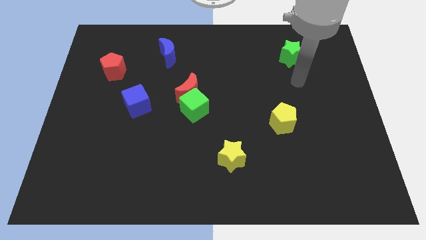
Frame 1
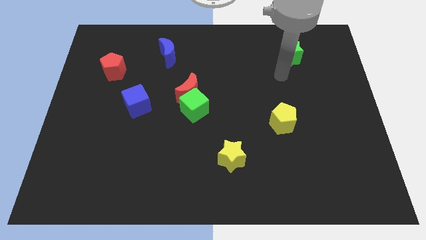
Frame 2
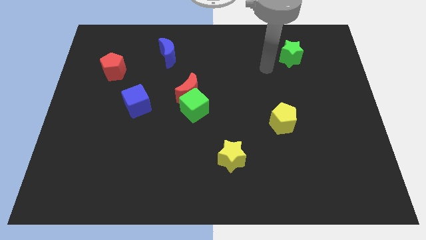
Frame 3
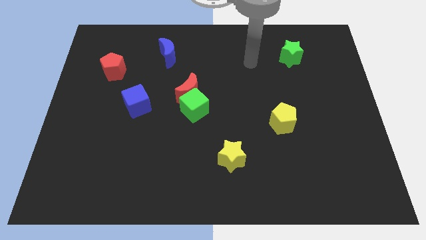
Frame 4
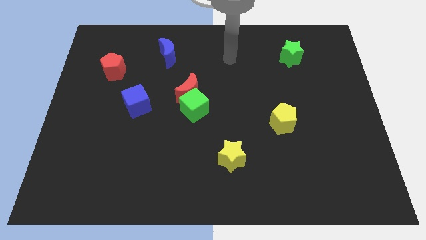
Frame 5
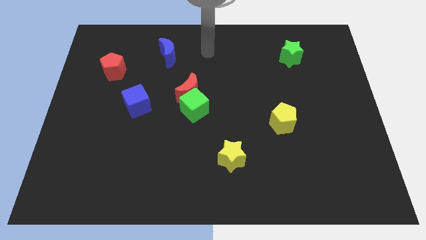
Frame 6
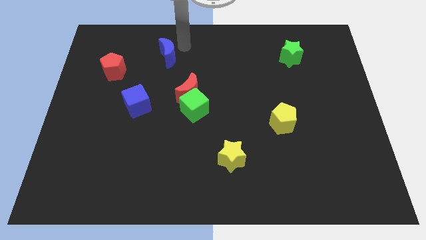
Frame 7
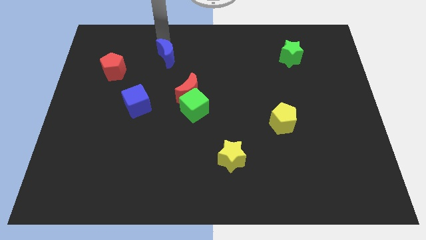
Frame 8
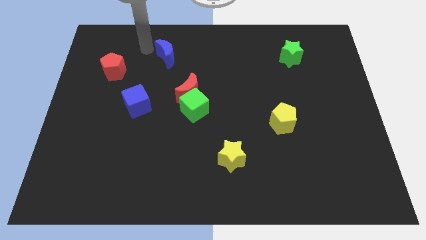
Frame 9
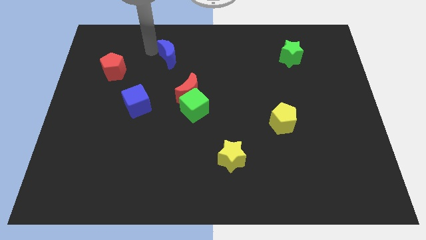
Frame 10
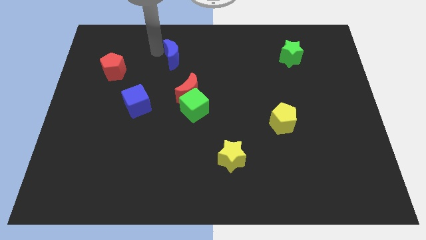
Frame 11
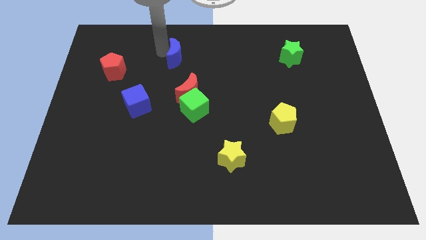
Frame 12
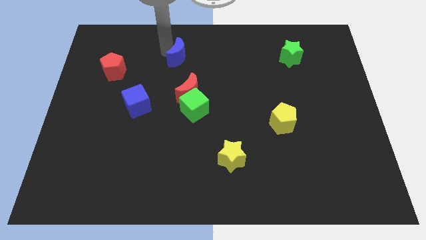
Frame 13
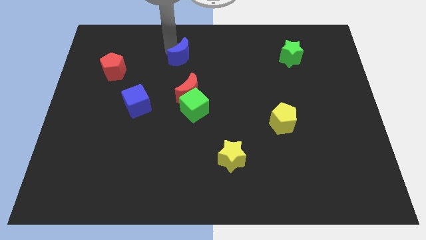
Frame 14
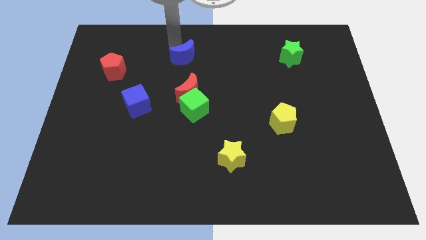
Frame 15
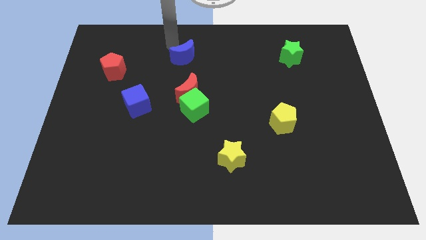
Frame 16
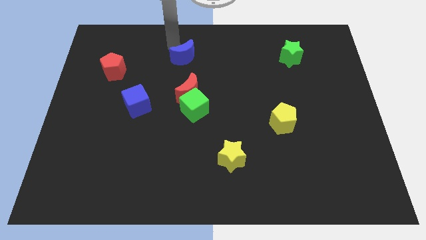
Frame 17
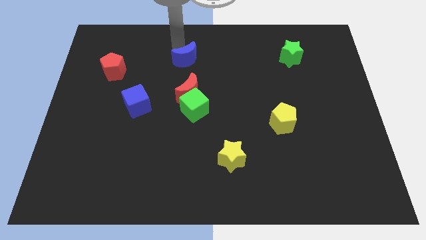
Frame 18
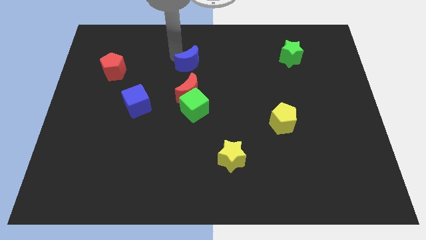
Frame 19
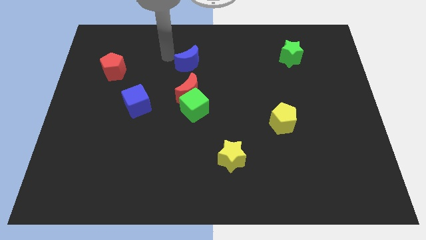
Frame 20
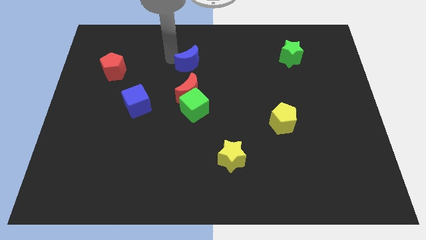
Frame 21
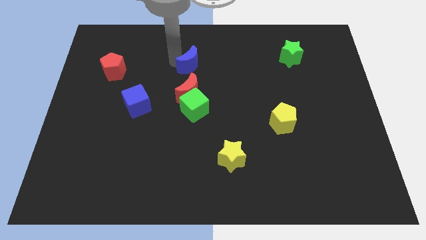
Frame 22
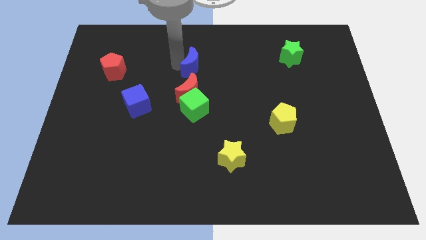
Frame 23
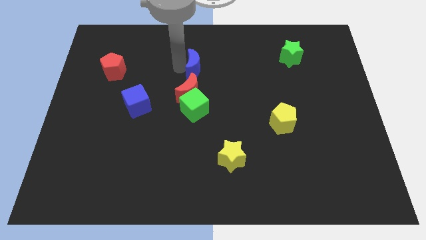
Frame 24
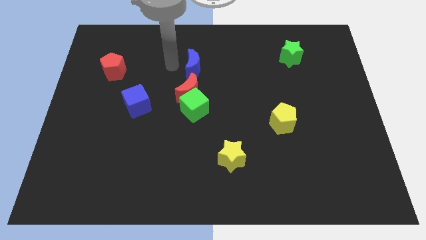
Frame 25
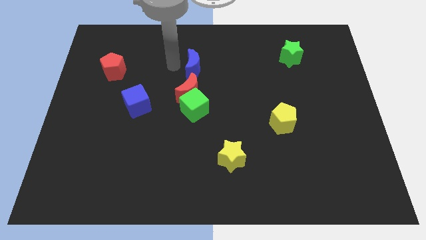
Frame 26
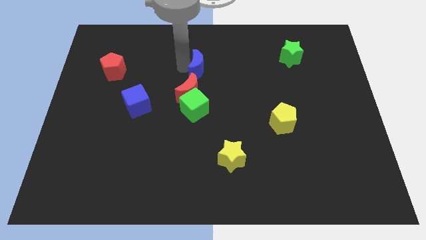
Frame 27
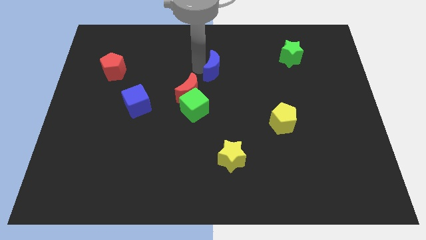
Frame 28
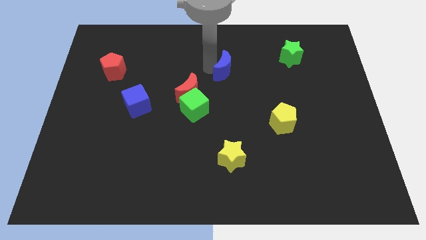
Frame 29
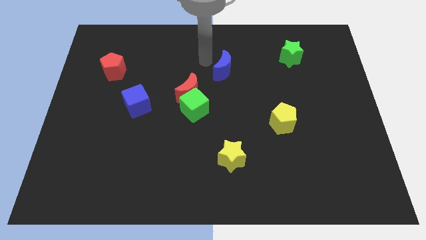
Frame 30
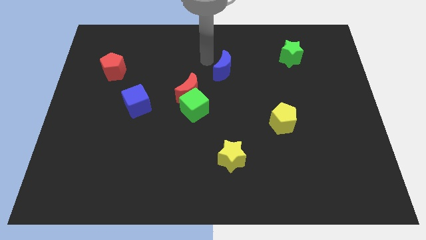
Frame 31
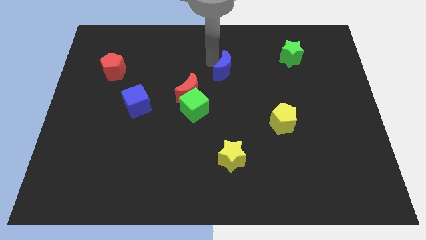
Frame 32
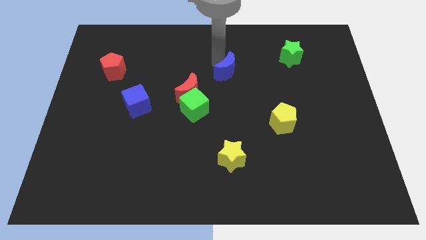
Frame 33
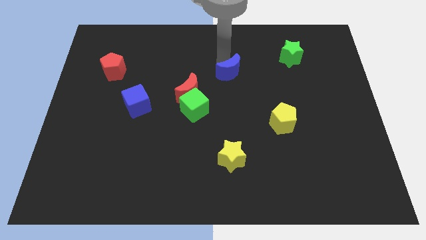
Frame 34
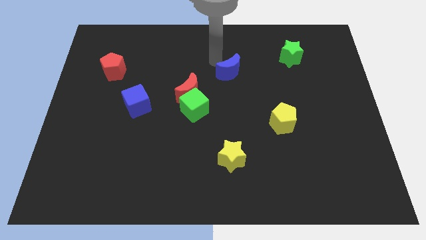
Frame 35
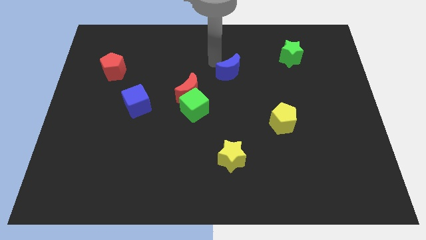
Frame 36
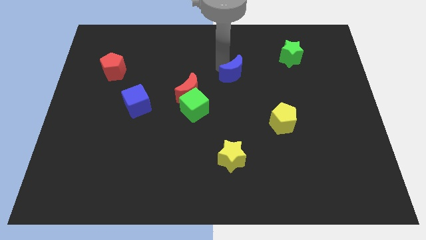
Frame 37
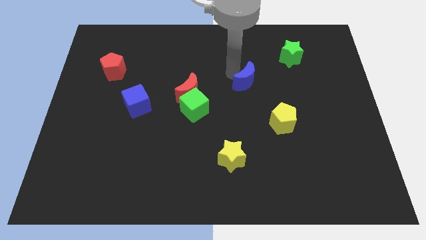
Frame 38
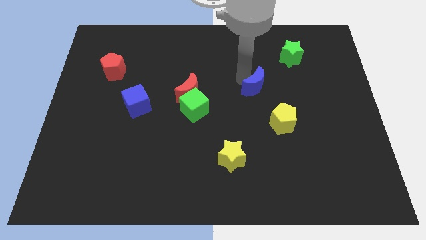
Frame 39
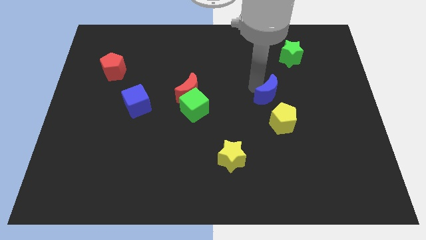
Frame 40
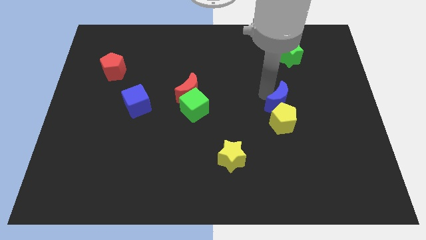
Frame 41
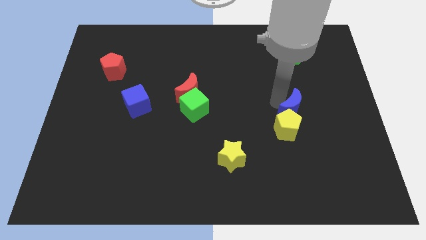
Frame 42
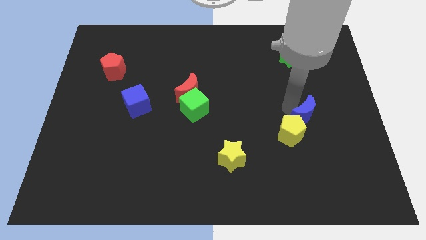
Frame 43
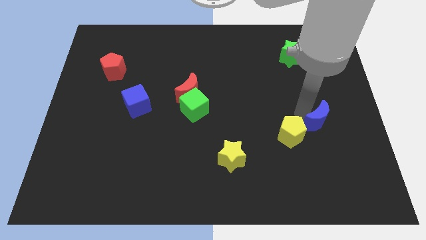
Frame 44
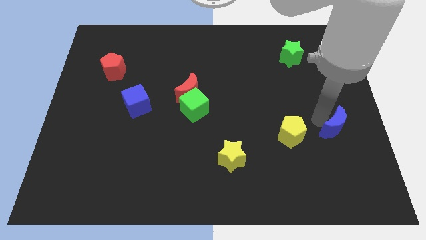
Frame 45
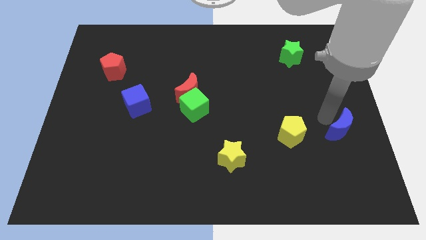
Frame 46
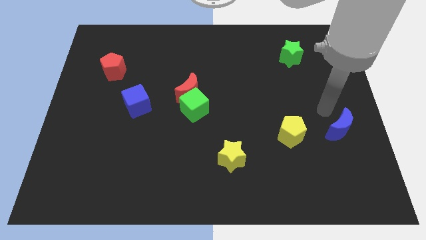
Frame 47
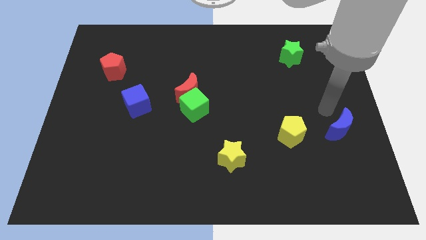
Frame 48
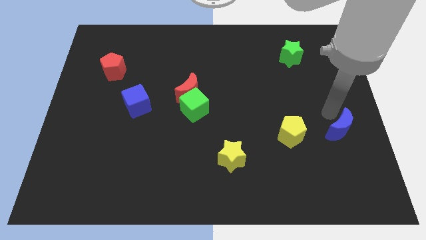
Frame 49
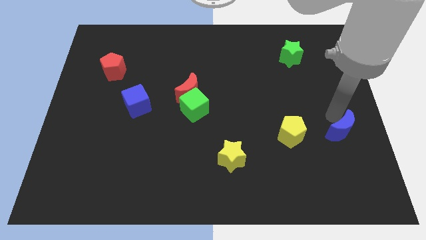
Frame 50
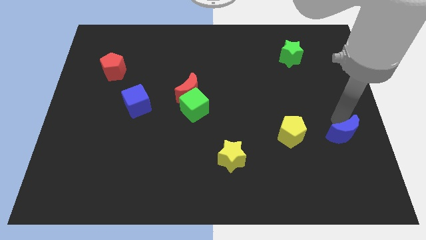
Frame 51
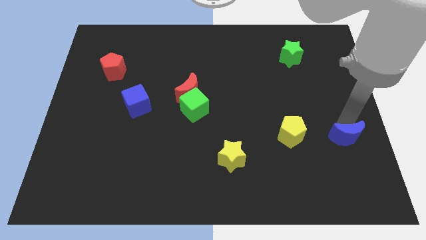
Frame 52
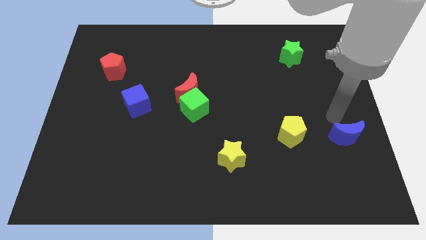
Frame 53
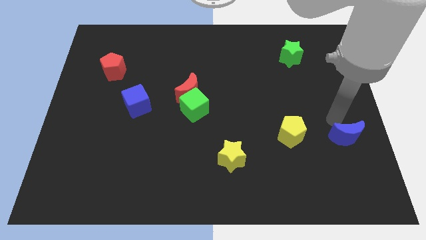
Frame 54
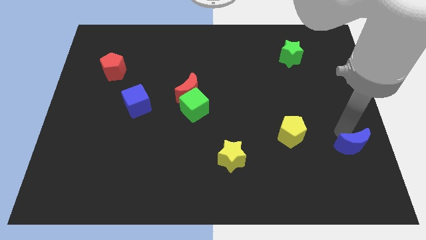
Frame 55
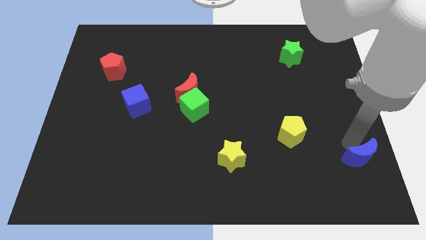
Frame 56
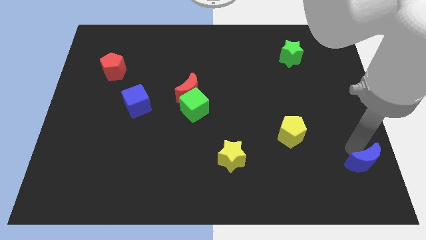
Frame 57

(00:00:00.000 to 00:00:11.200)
slide the blue moon to the bottom right

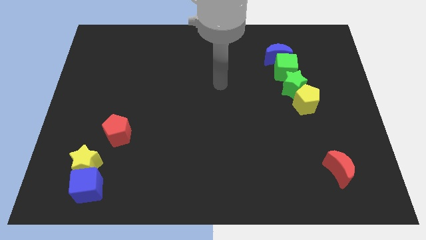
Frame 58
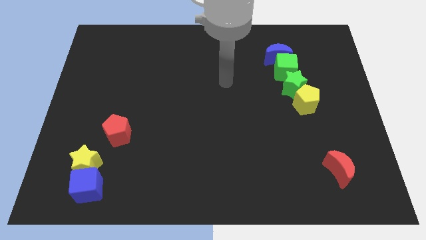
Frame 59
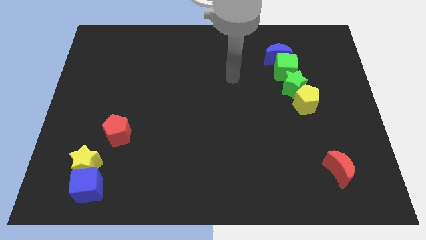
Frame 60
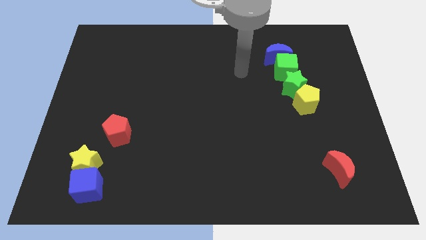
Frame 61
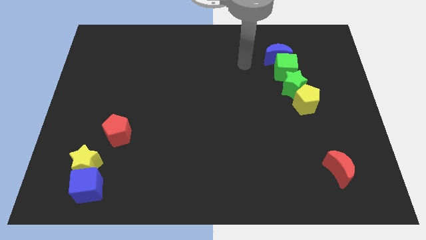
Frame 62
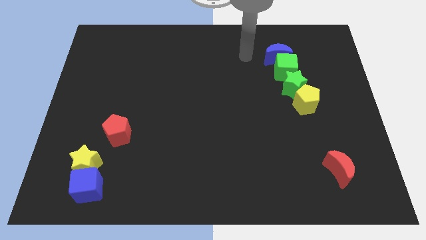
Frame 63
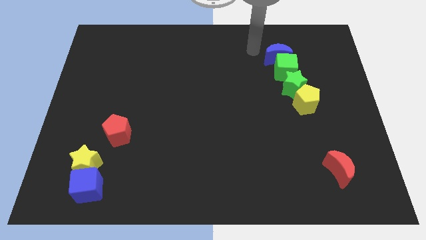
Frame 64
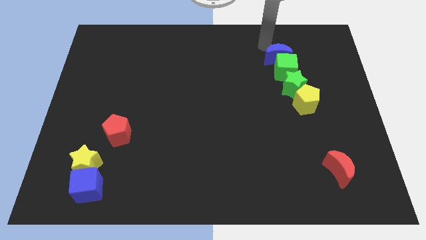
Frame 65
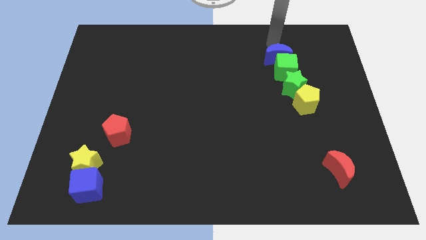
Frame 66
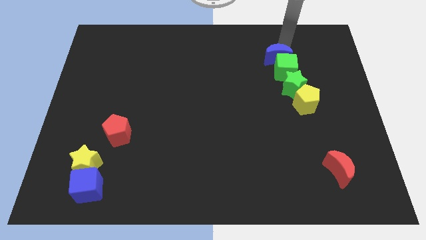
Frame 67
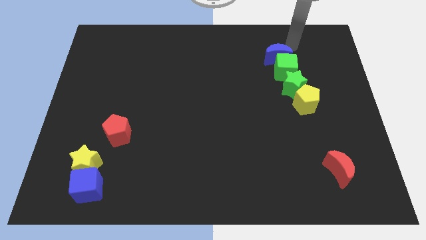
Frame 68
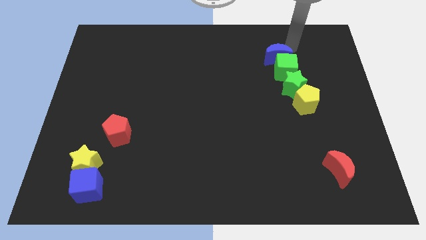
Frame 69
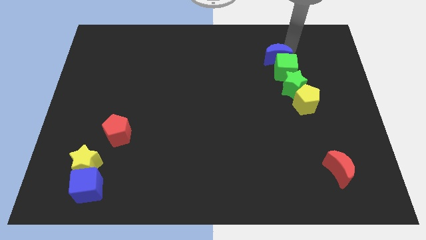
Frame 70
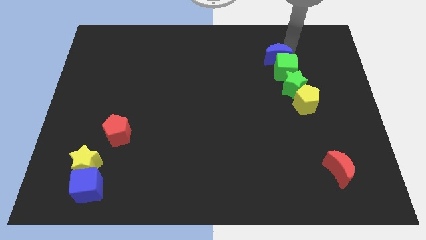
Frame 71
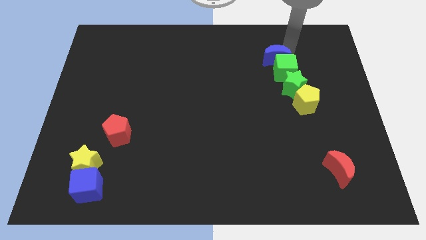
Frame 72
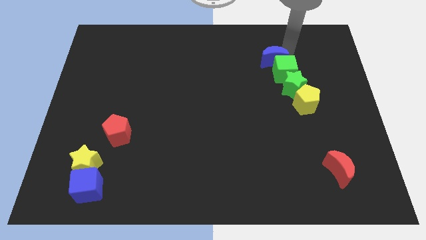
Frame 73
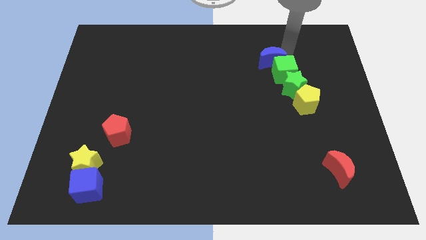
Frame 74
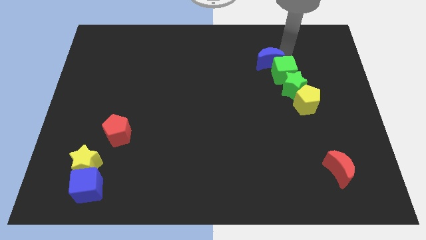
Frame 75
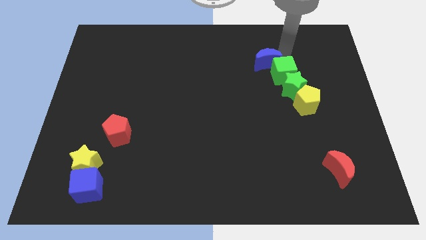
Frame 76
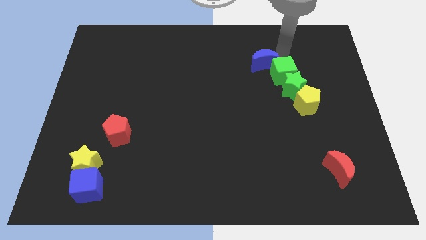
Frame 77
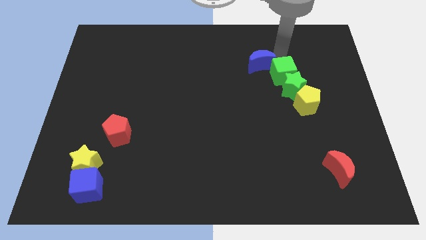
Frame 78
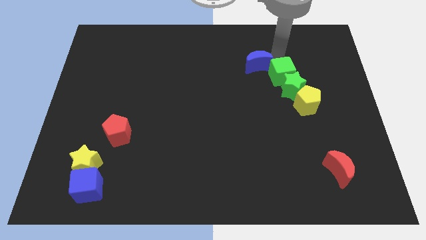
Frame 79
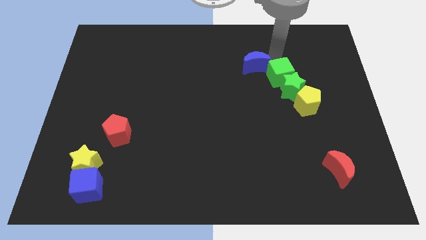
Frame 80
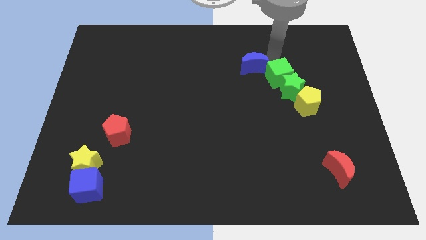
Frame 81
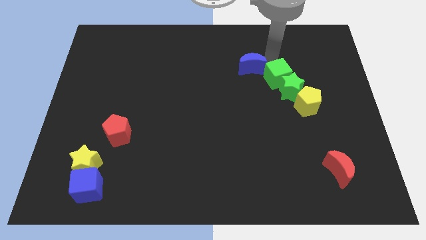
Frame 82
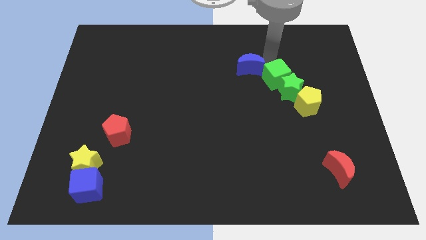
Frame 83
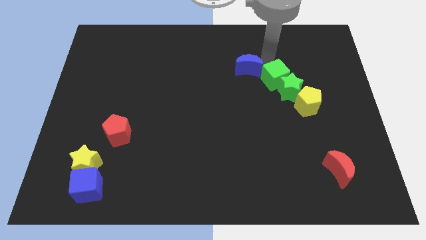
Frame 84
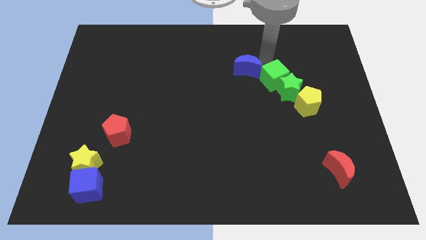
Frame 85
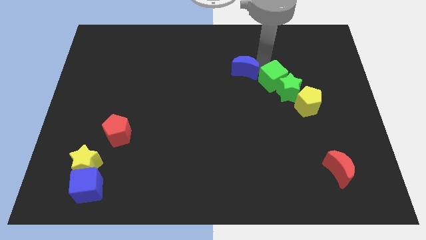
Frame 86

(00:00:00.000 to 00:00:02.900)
move the blue moon to the middle of the board
